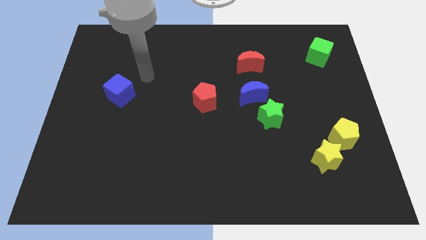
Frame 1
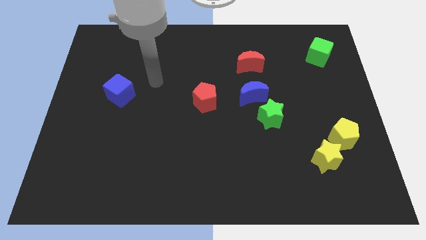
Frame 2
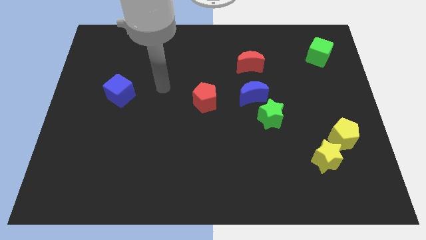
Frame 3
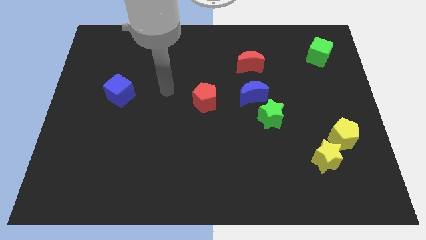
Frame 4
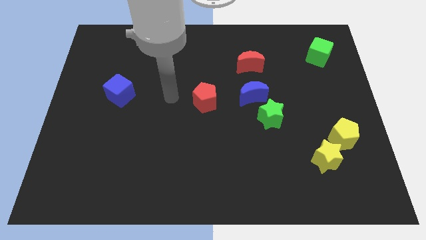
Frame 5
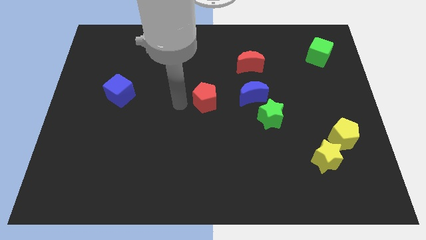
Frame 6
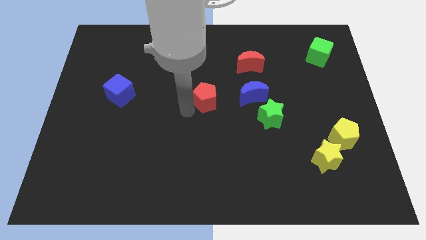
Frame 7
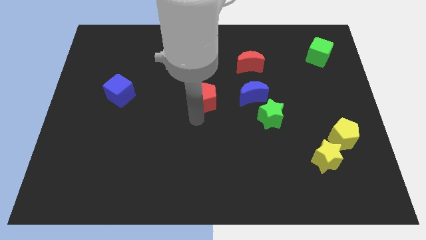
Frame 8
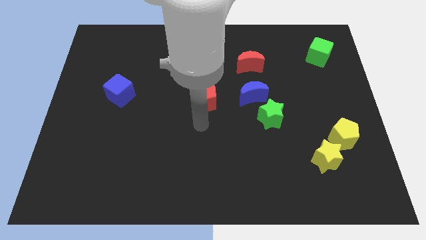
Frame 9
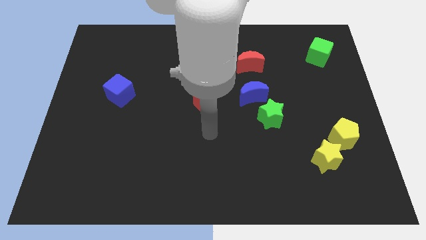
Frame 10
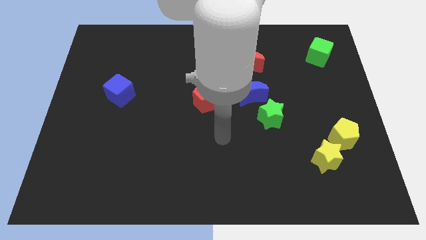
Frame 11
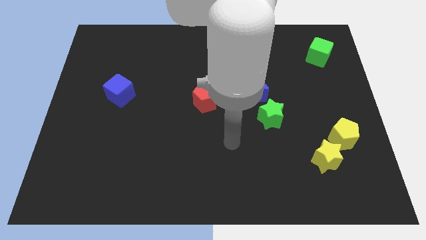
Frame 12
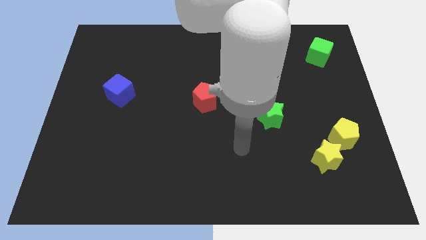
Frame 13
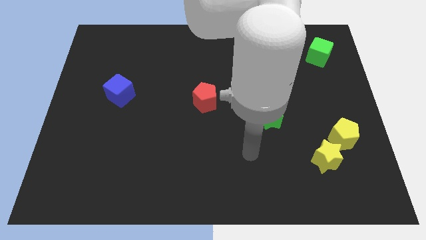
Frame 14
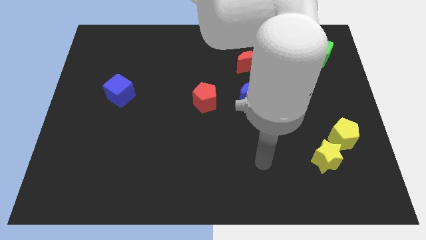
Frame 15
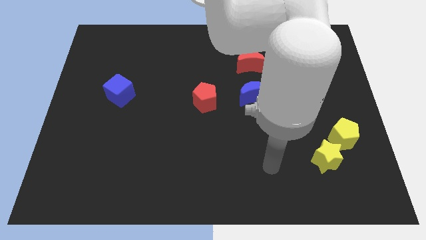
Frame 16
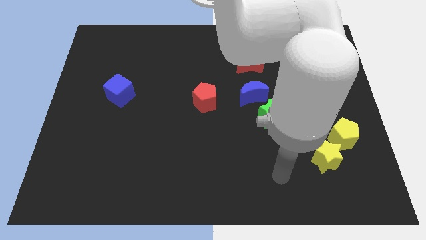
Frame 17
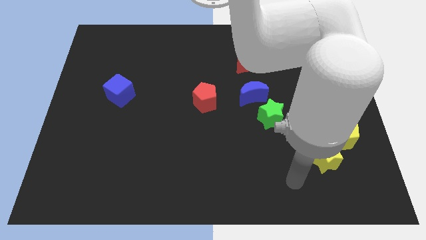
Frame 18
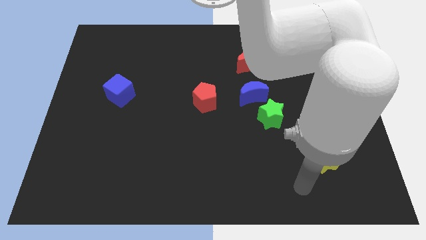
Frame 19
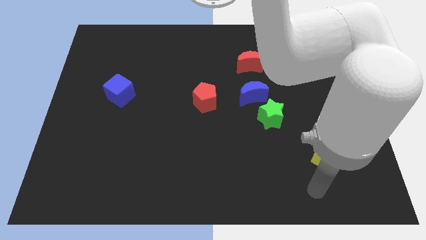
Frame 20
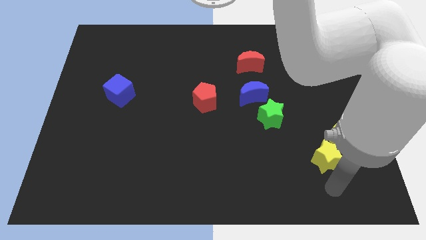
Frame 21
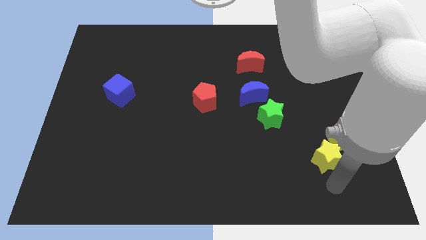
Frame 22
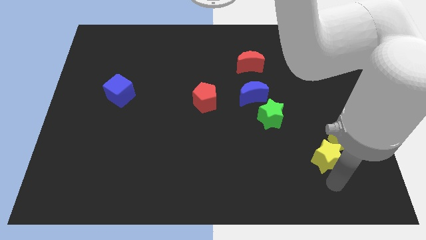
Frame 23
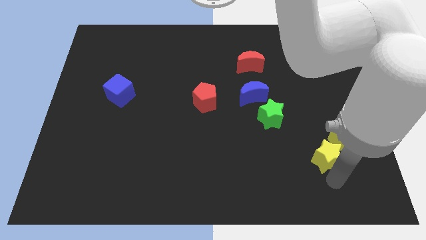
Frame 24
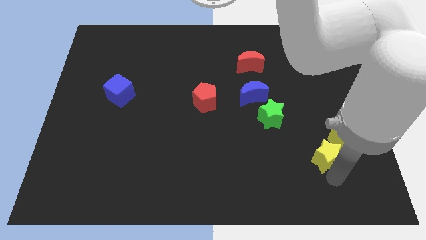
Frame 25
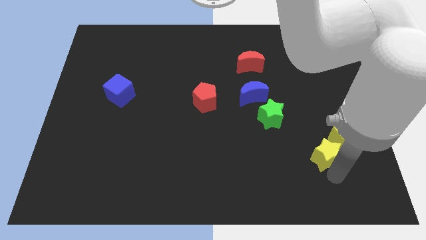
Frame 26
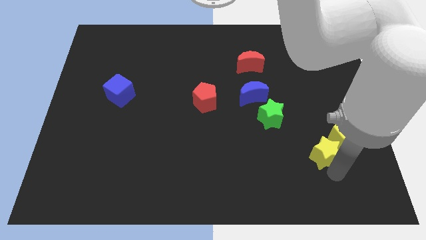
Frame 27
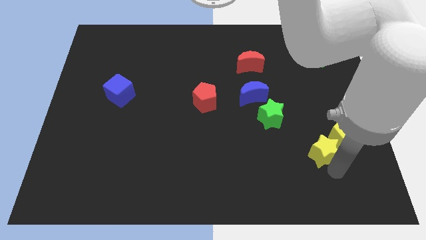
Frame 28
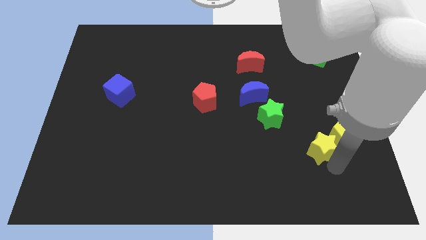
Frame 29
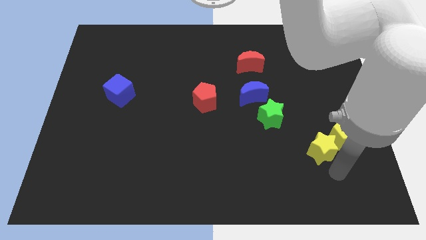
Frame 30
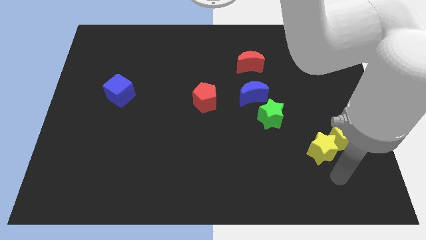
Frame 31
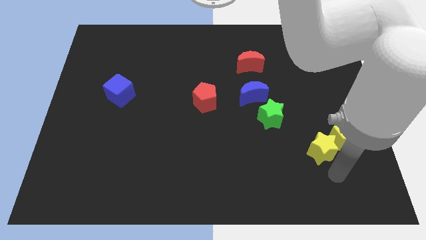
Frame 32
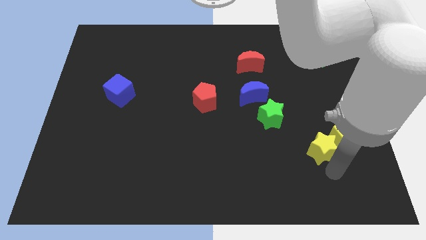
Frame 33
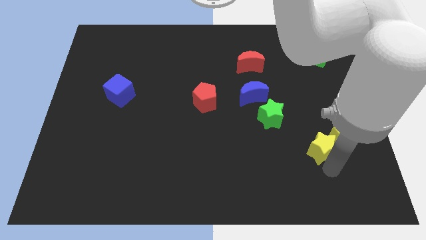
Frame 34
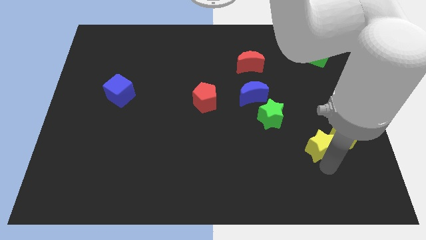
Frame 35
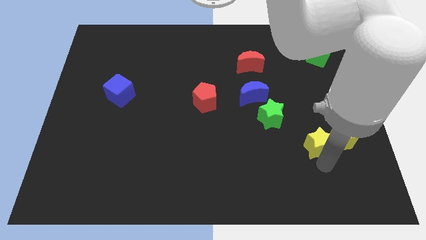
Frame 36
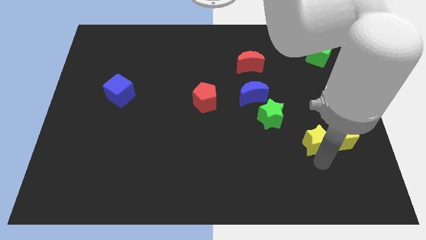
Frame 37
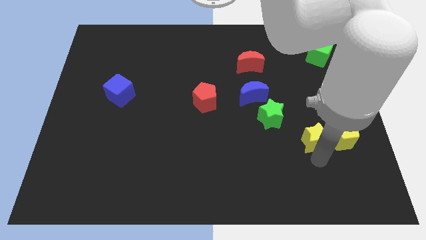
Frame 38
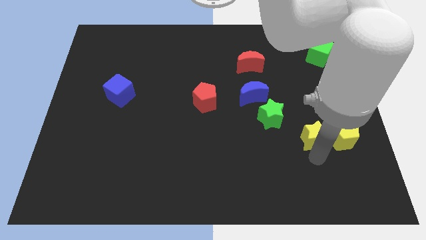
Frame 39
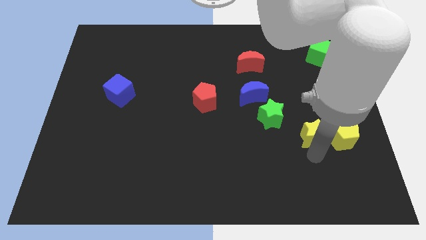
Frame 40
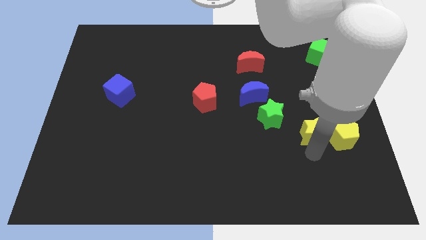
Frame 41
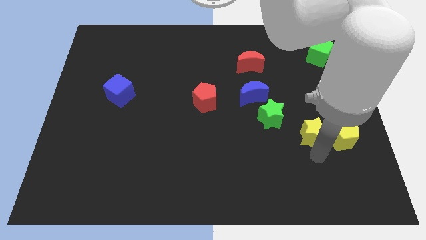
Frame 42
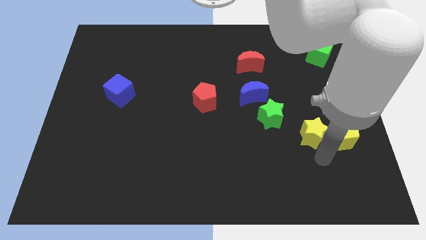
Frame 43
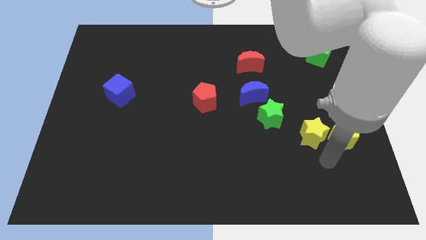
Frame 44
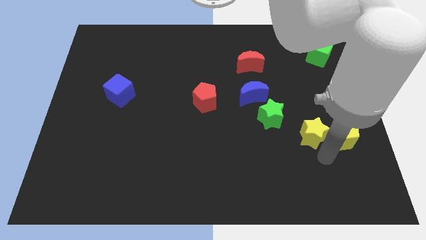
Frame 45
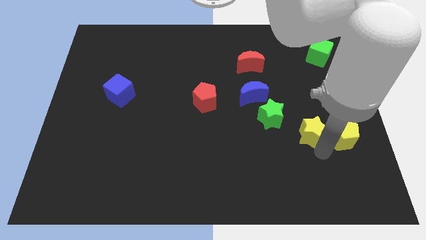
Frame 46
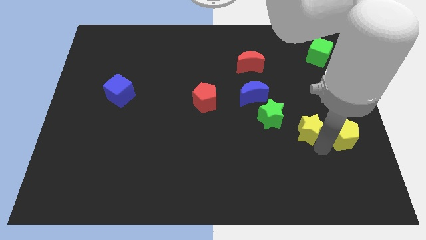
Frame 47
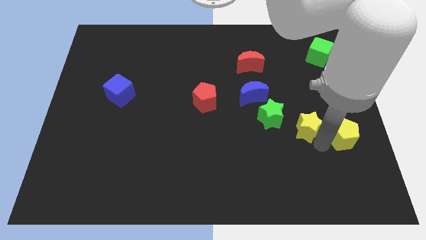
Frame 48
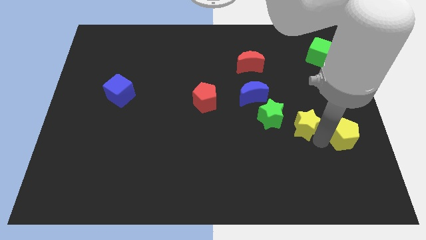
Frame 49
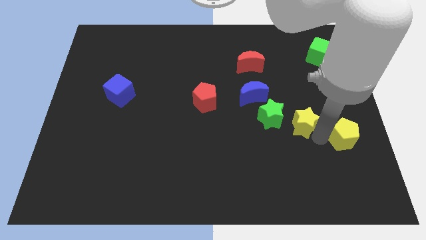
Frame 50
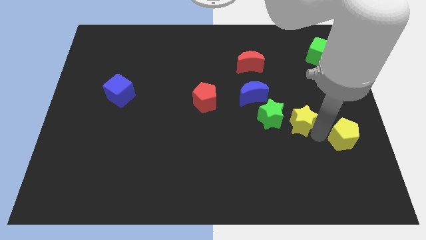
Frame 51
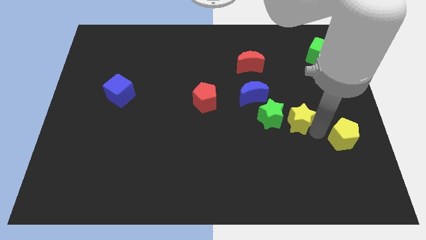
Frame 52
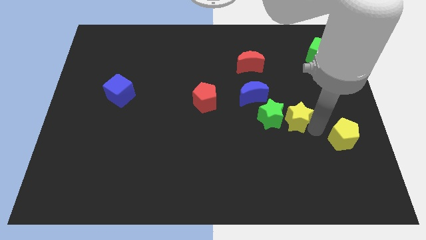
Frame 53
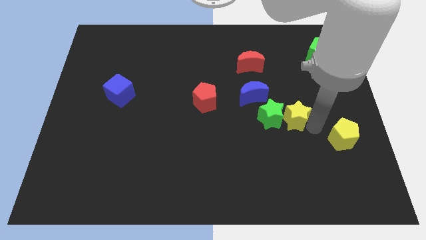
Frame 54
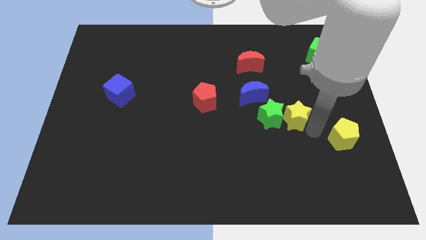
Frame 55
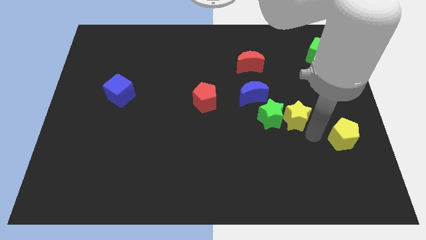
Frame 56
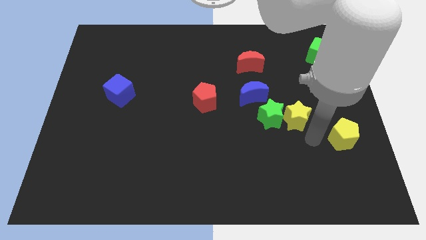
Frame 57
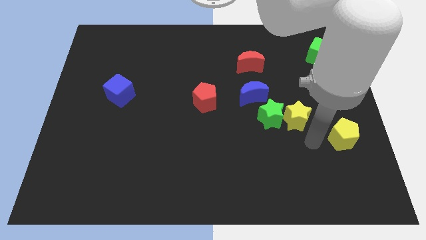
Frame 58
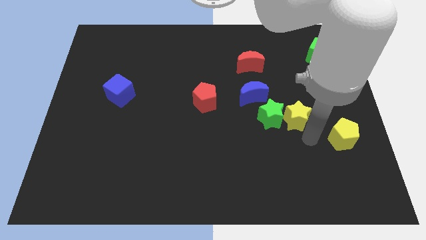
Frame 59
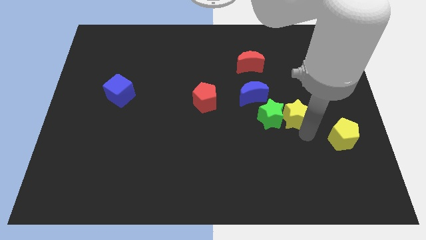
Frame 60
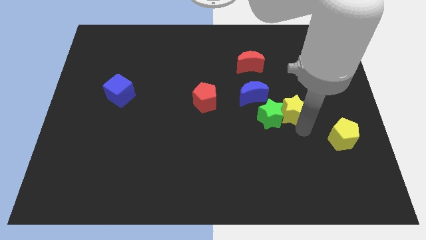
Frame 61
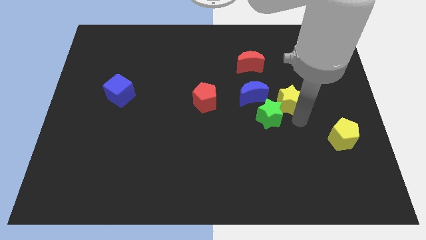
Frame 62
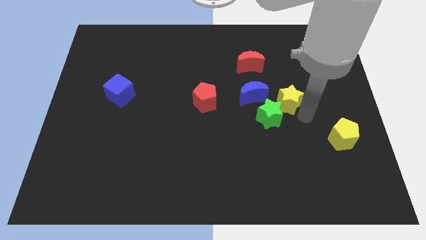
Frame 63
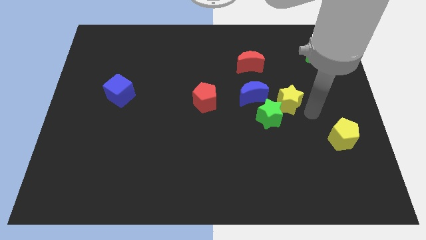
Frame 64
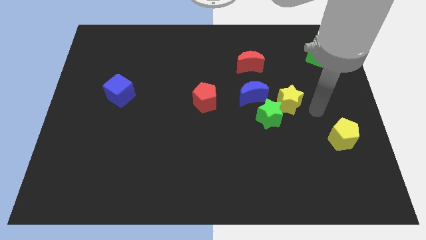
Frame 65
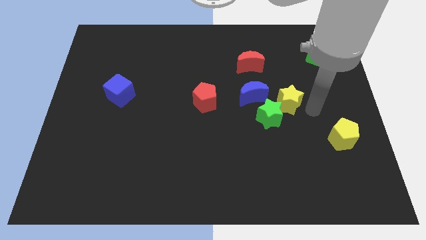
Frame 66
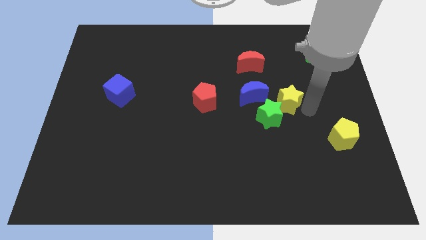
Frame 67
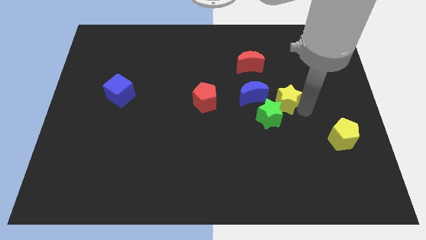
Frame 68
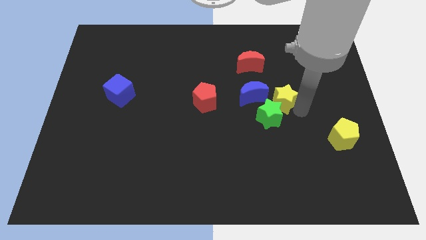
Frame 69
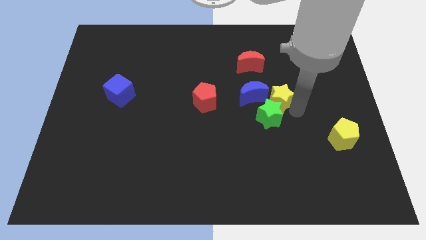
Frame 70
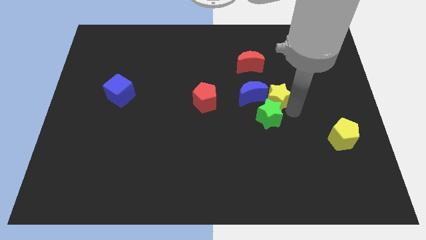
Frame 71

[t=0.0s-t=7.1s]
put the yellow star next to the blue moon
